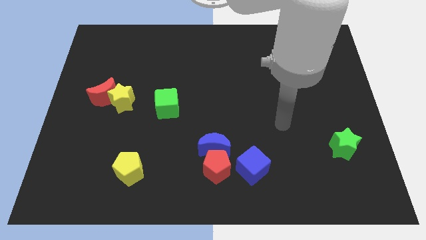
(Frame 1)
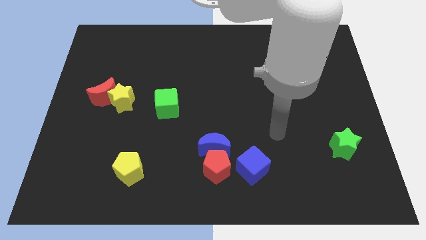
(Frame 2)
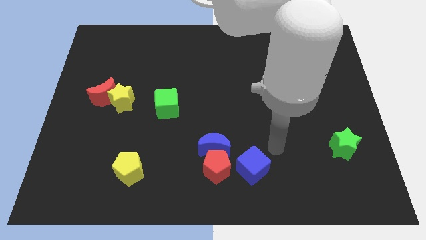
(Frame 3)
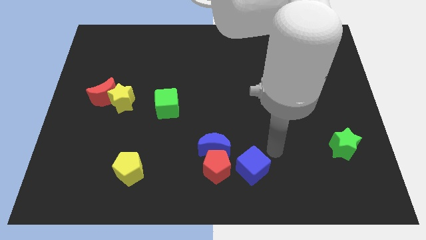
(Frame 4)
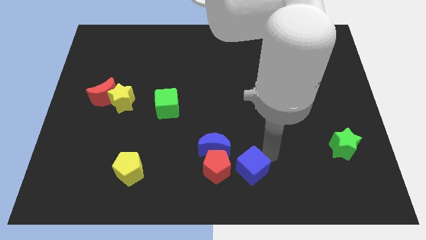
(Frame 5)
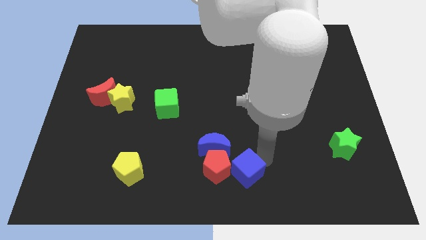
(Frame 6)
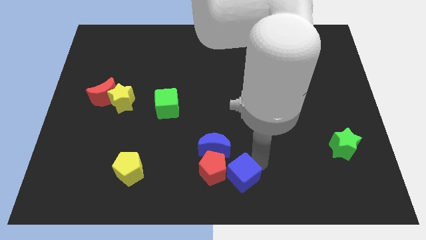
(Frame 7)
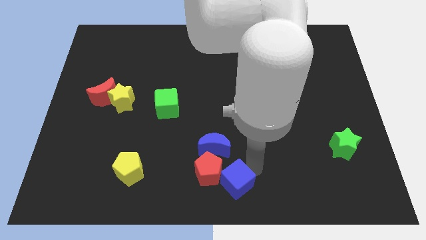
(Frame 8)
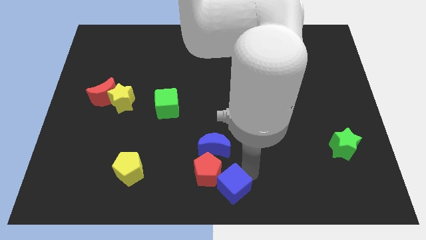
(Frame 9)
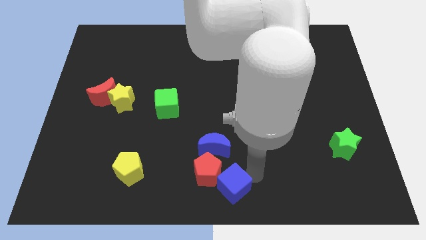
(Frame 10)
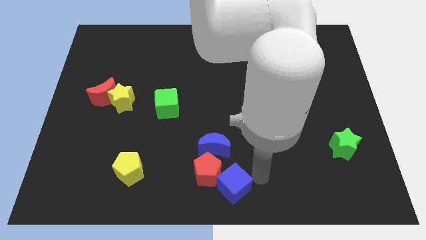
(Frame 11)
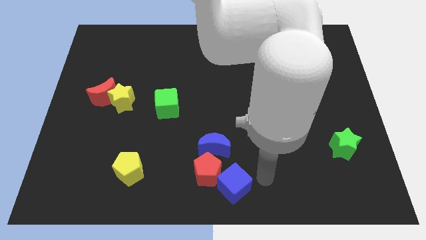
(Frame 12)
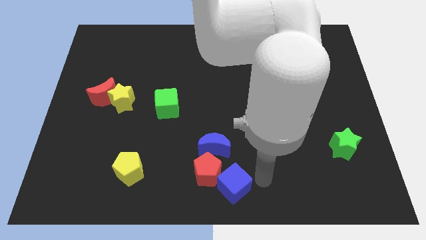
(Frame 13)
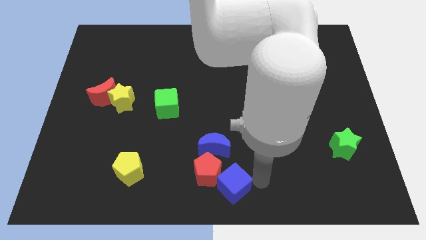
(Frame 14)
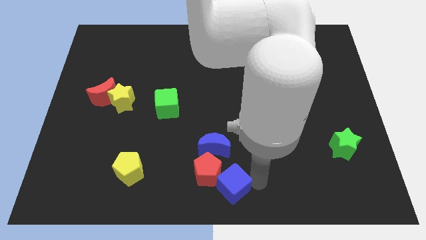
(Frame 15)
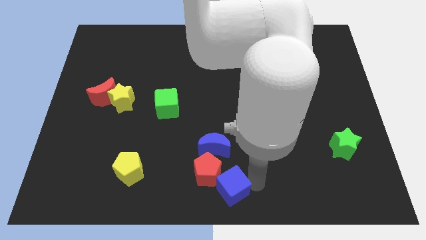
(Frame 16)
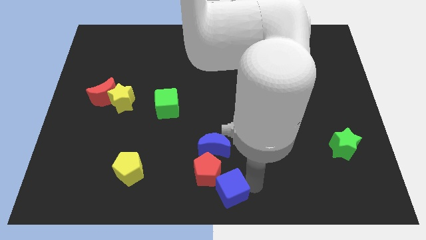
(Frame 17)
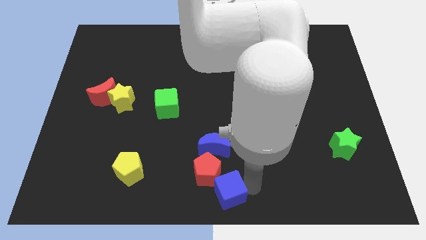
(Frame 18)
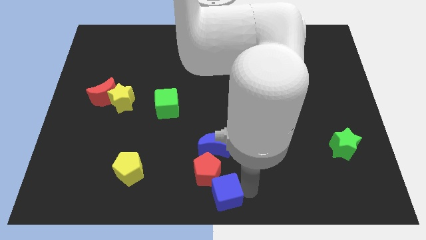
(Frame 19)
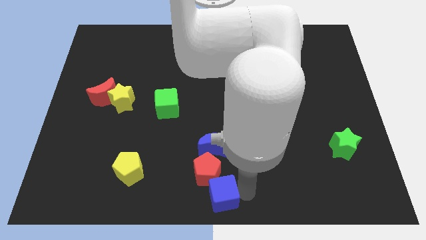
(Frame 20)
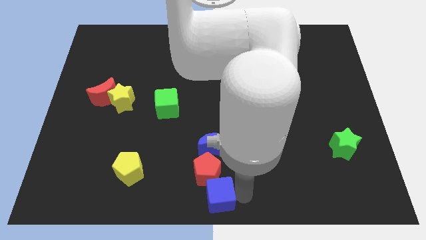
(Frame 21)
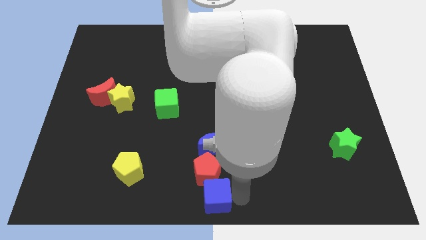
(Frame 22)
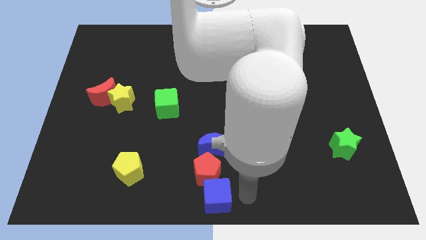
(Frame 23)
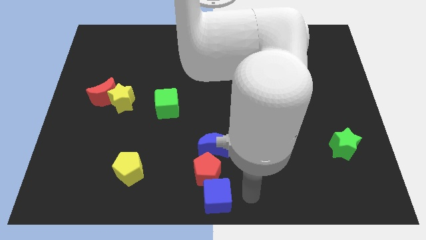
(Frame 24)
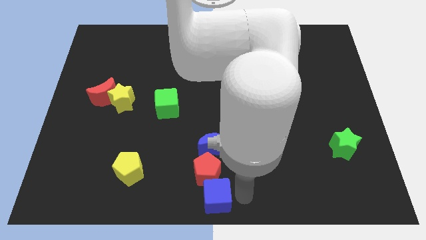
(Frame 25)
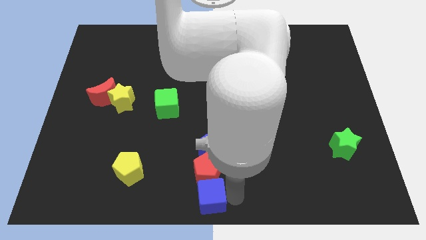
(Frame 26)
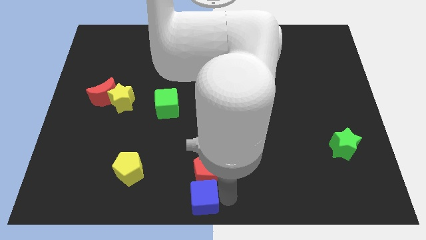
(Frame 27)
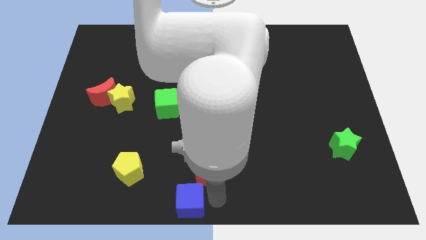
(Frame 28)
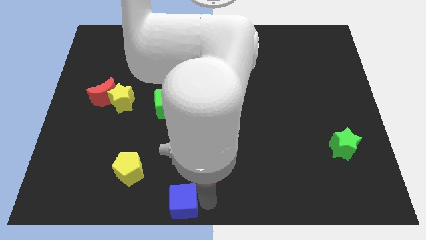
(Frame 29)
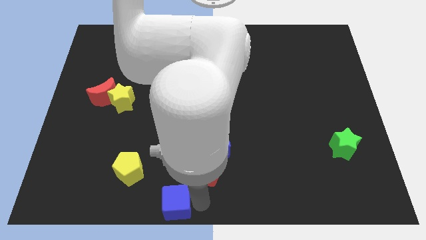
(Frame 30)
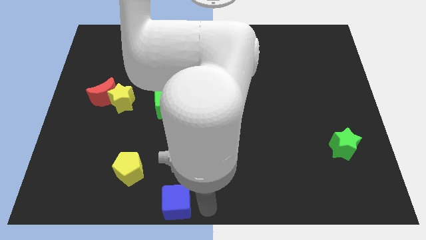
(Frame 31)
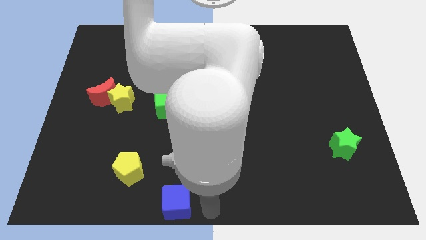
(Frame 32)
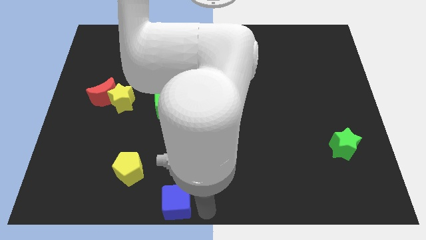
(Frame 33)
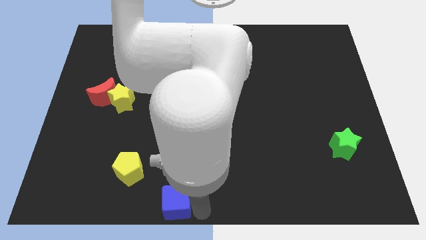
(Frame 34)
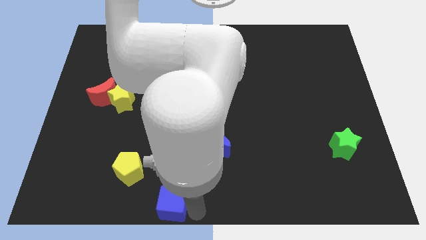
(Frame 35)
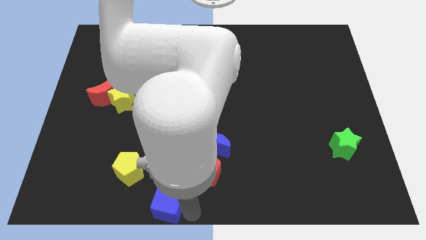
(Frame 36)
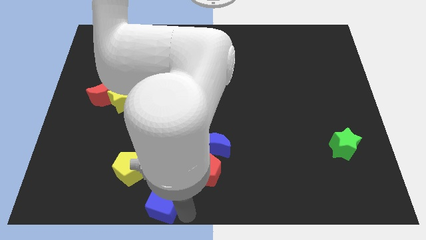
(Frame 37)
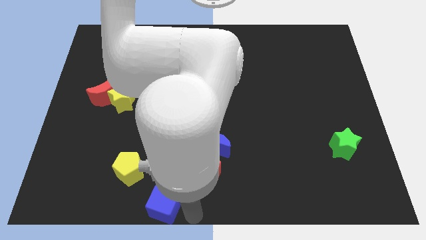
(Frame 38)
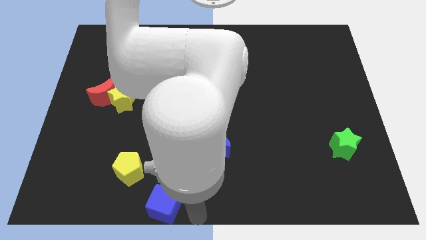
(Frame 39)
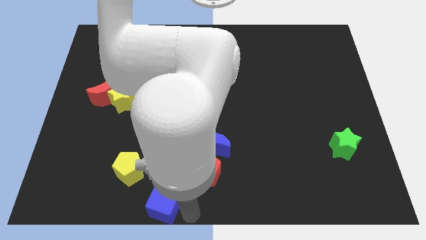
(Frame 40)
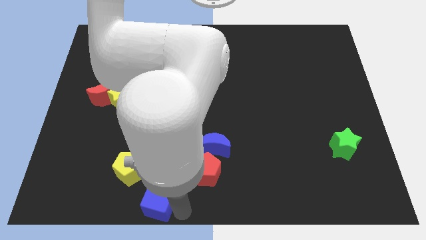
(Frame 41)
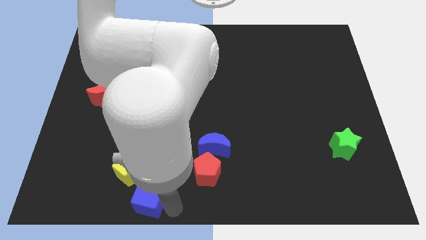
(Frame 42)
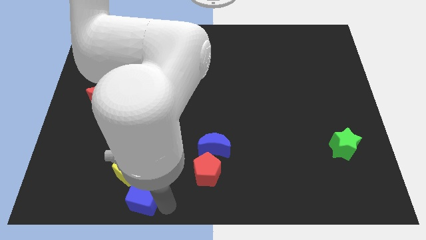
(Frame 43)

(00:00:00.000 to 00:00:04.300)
move the blue cube left

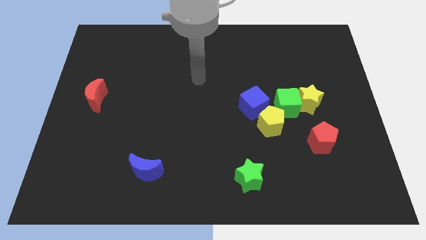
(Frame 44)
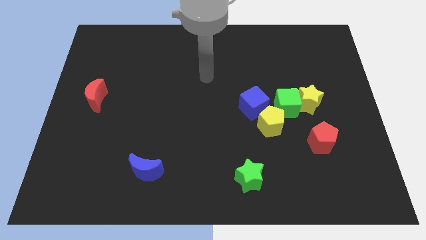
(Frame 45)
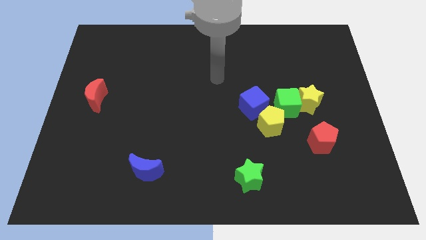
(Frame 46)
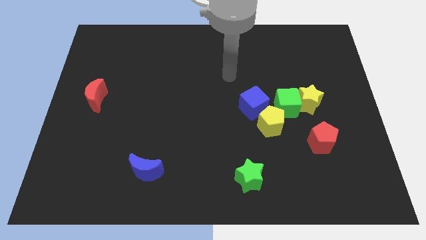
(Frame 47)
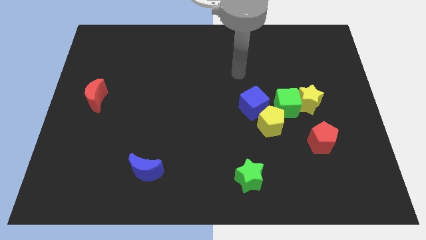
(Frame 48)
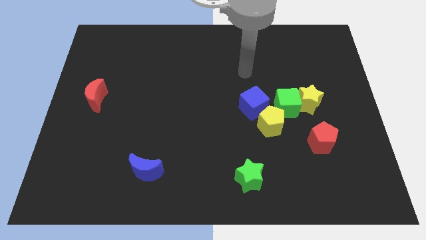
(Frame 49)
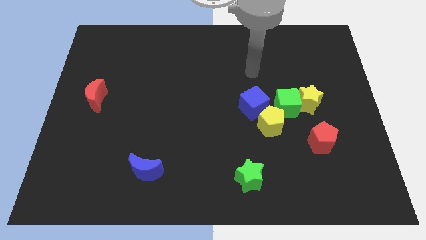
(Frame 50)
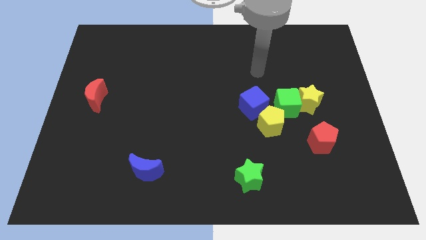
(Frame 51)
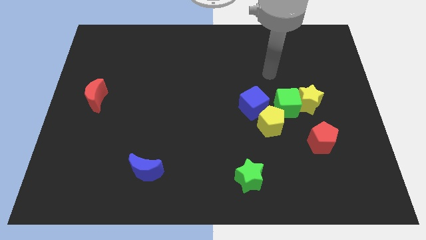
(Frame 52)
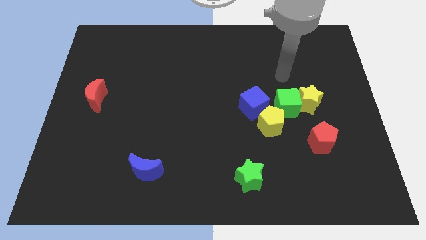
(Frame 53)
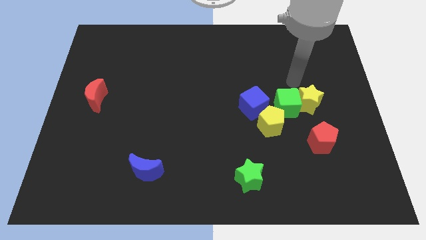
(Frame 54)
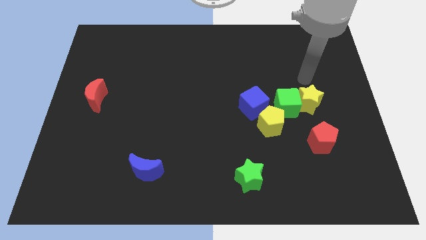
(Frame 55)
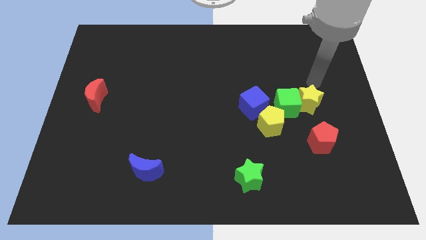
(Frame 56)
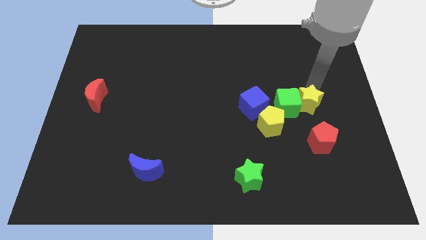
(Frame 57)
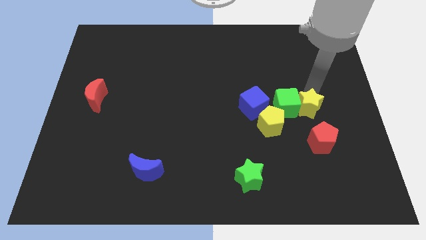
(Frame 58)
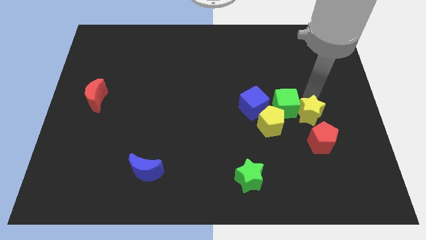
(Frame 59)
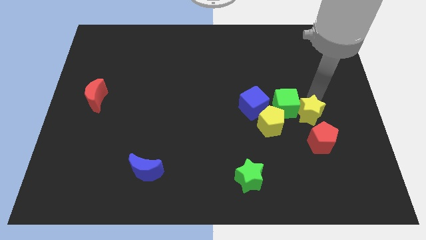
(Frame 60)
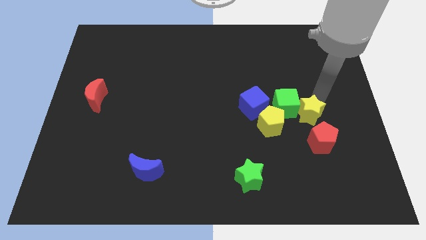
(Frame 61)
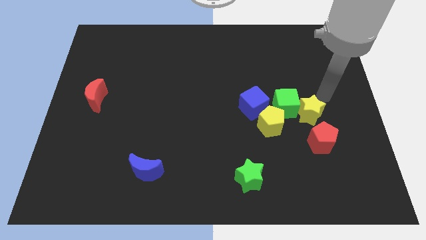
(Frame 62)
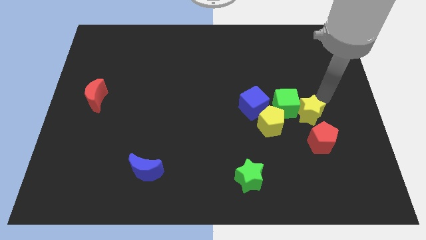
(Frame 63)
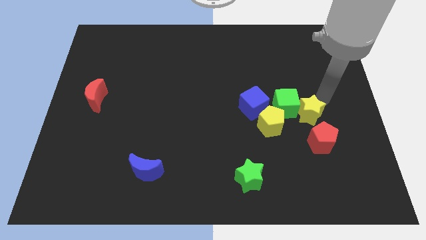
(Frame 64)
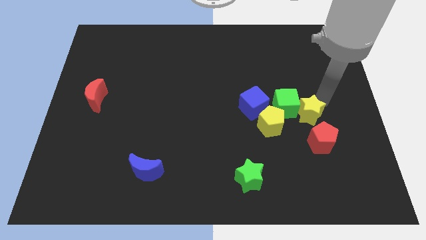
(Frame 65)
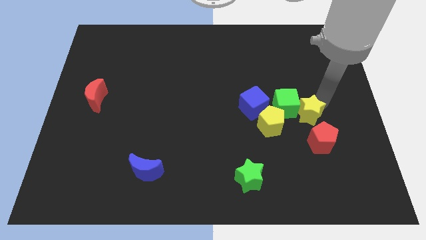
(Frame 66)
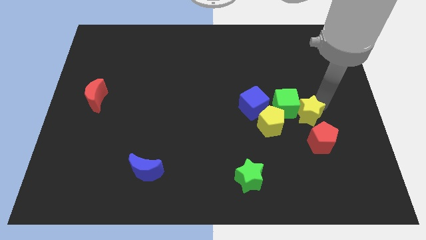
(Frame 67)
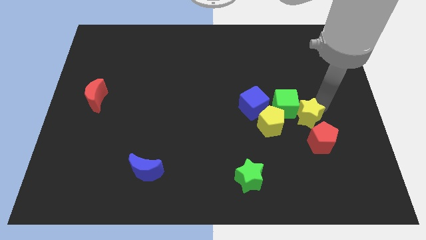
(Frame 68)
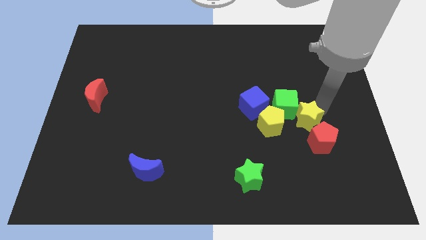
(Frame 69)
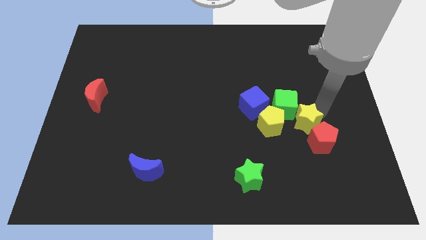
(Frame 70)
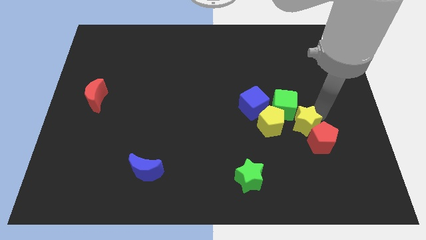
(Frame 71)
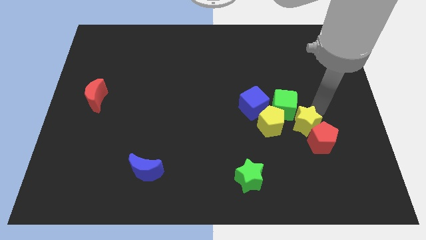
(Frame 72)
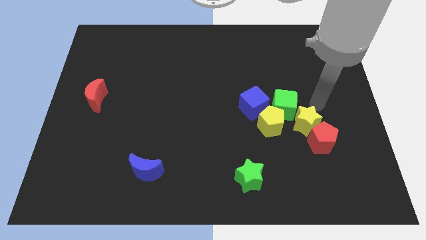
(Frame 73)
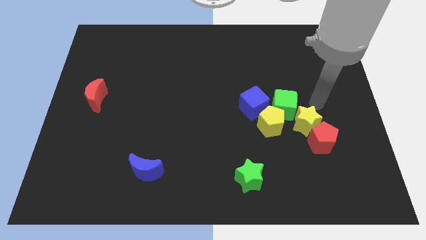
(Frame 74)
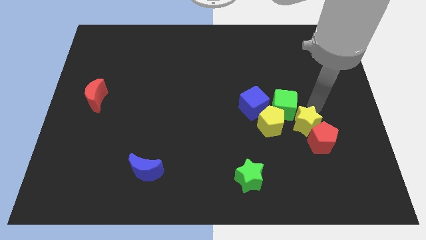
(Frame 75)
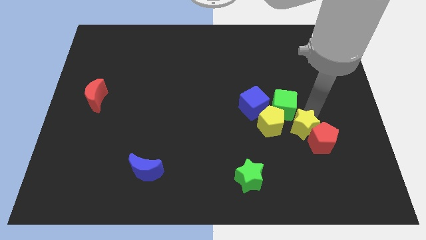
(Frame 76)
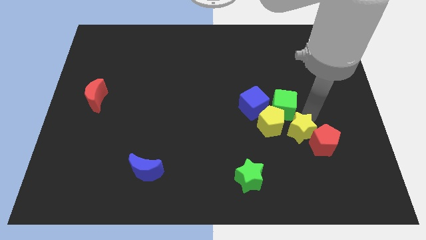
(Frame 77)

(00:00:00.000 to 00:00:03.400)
move the yellow star a little bit downwards and then to the left
